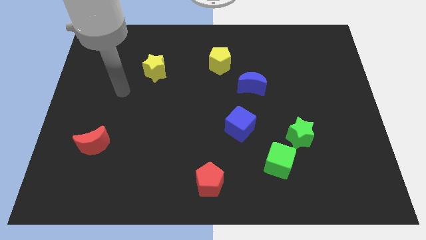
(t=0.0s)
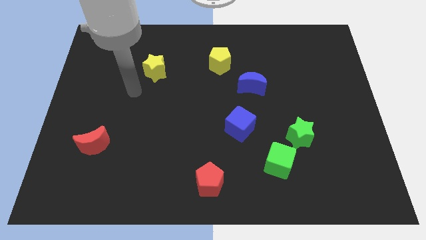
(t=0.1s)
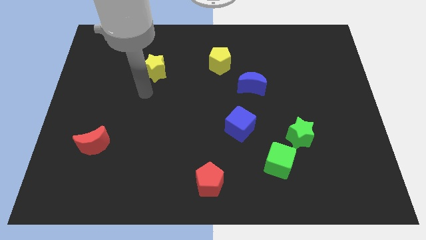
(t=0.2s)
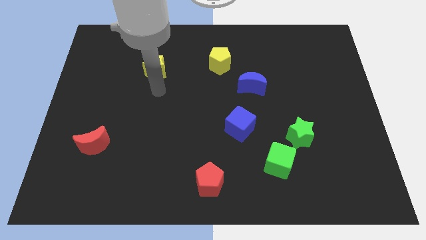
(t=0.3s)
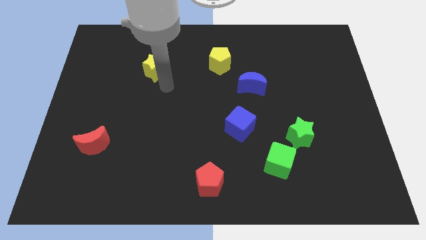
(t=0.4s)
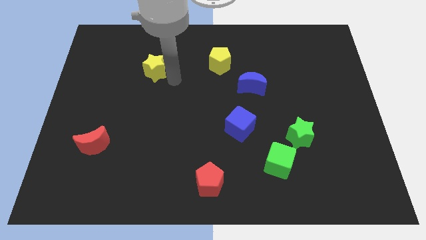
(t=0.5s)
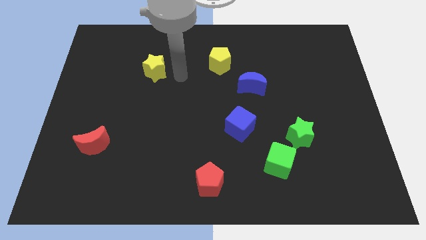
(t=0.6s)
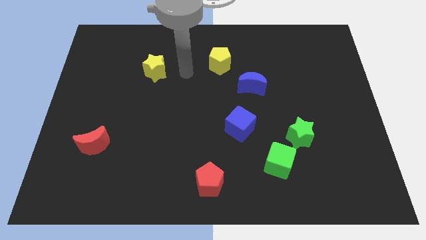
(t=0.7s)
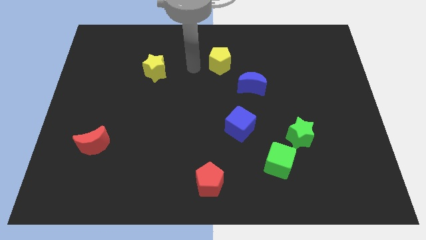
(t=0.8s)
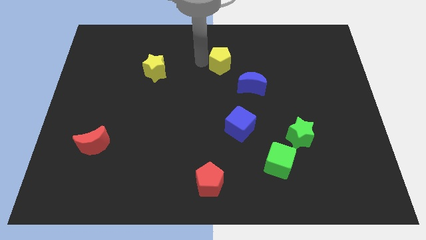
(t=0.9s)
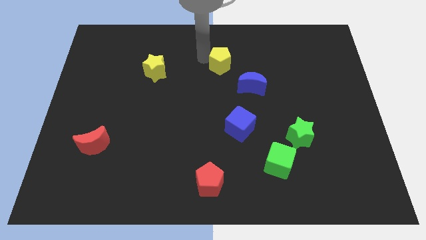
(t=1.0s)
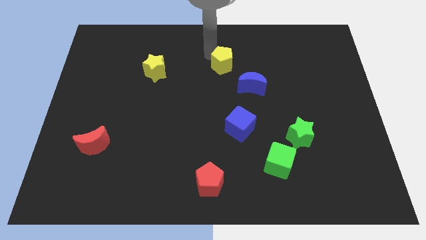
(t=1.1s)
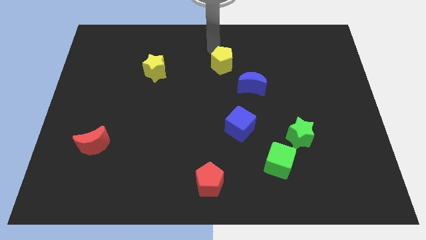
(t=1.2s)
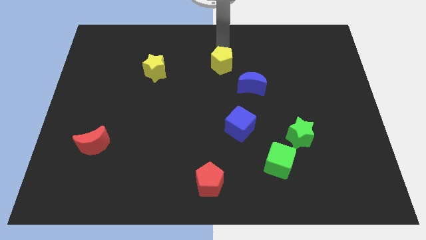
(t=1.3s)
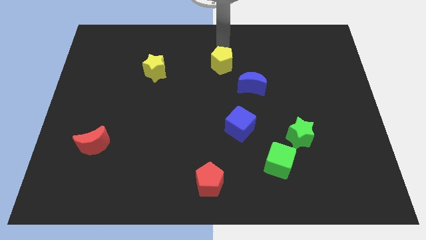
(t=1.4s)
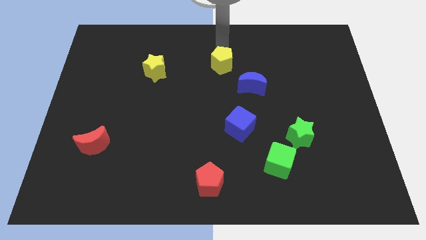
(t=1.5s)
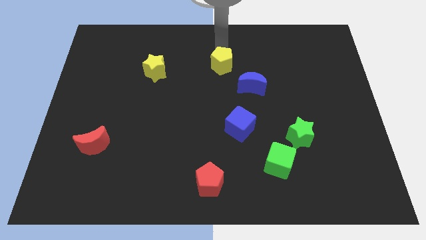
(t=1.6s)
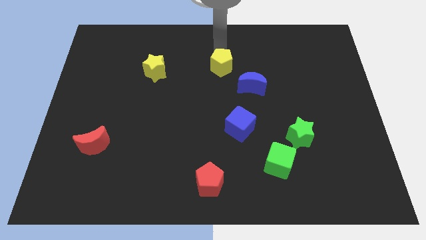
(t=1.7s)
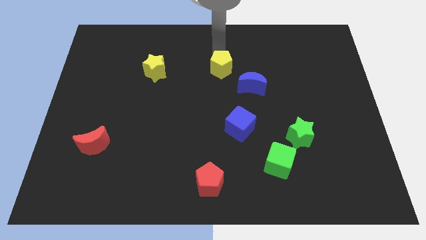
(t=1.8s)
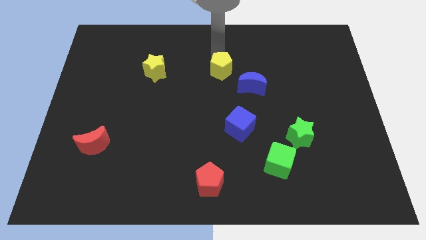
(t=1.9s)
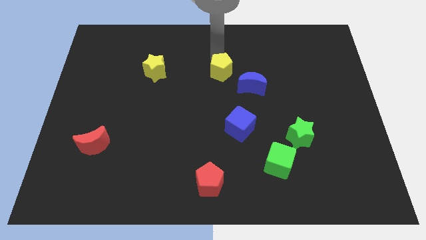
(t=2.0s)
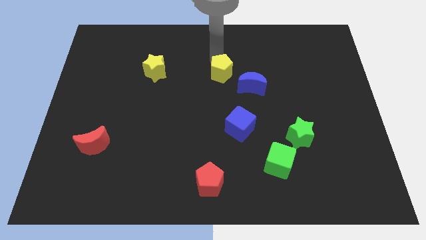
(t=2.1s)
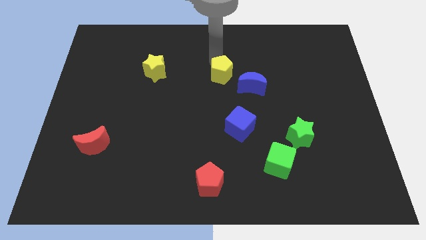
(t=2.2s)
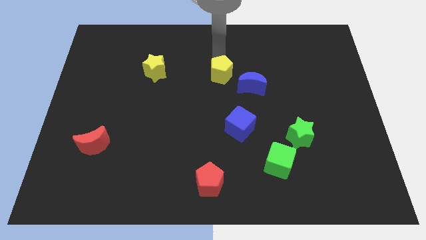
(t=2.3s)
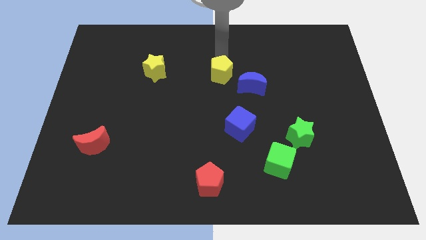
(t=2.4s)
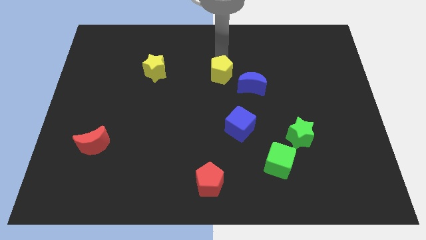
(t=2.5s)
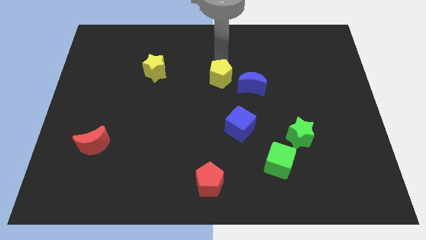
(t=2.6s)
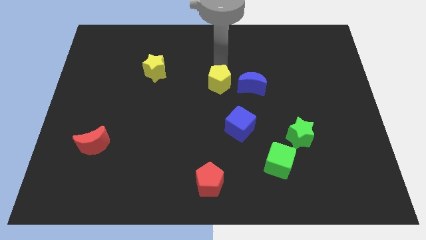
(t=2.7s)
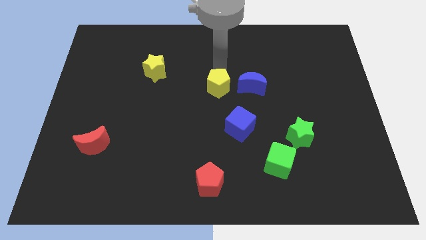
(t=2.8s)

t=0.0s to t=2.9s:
slide the yellow pentagon downwards a little

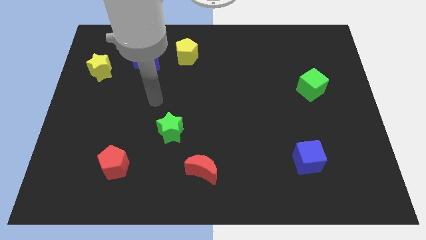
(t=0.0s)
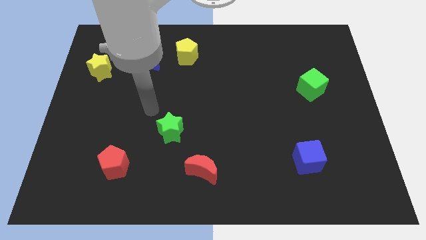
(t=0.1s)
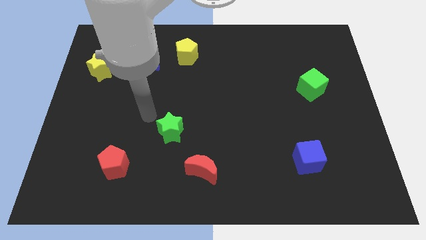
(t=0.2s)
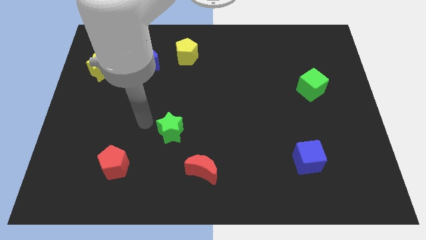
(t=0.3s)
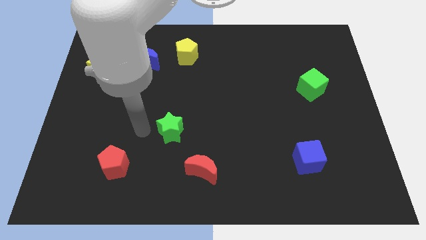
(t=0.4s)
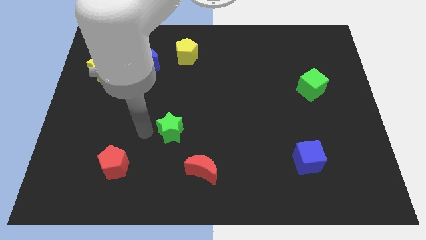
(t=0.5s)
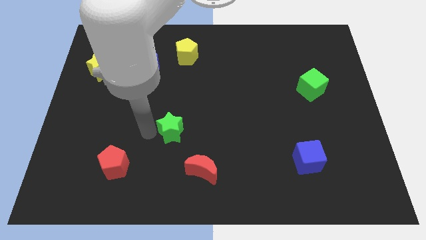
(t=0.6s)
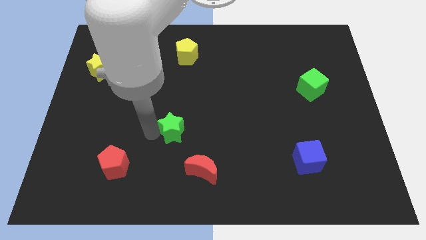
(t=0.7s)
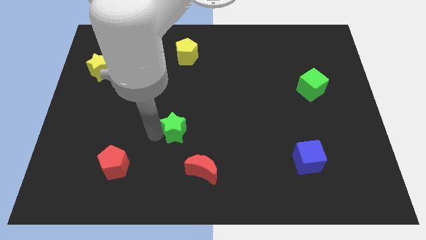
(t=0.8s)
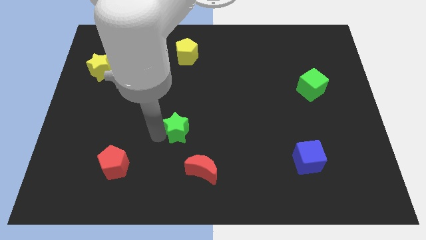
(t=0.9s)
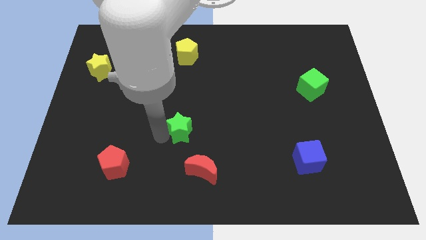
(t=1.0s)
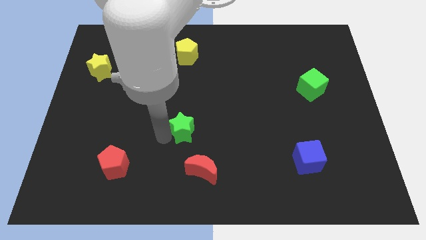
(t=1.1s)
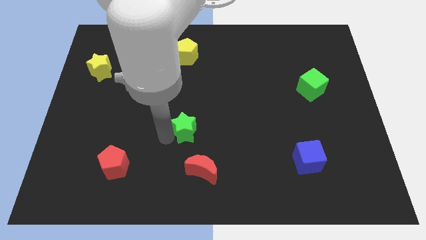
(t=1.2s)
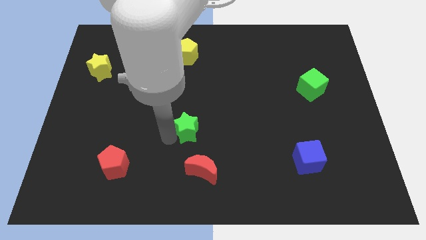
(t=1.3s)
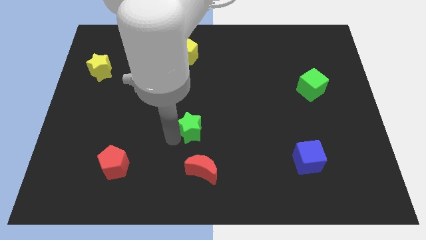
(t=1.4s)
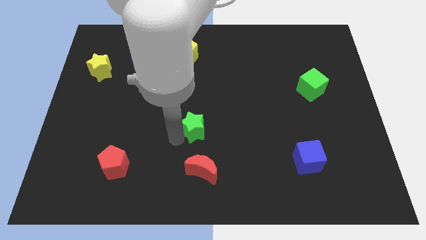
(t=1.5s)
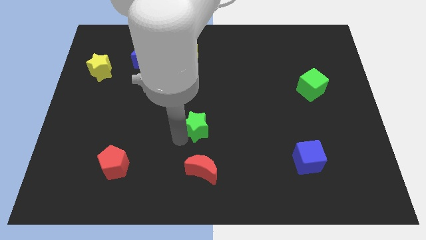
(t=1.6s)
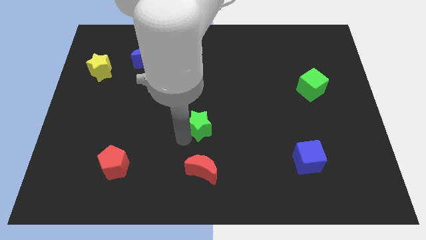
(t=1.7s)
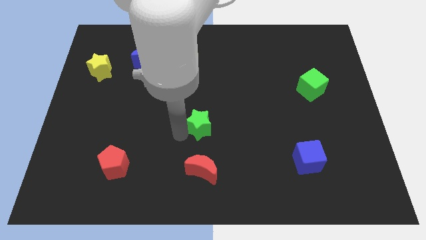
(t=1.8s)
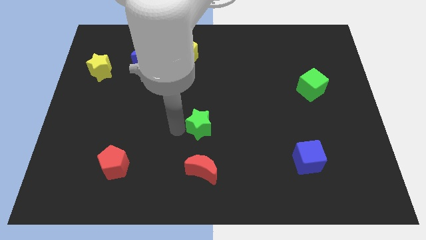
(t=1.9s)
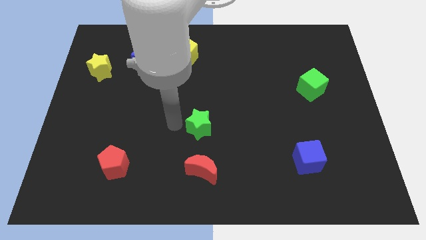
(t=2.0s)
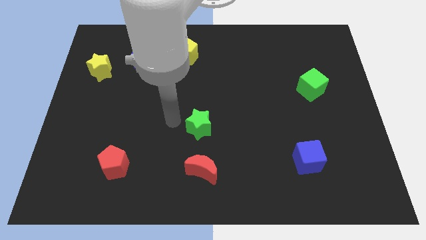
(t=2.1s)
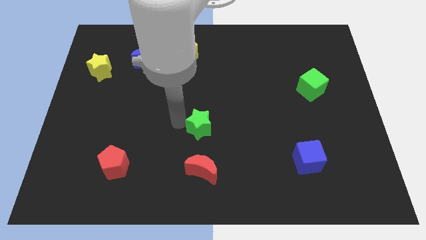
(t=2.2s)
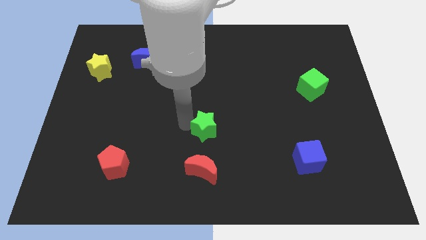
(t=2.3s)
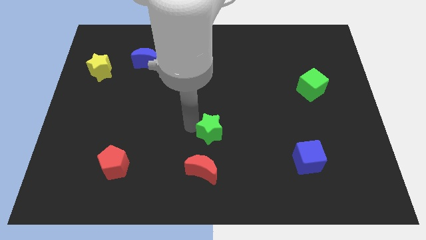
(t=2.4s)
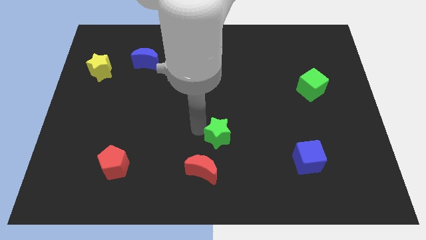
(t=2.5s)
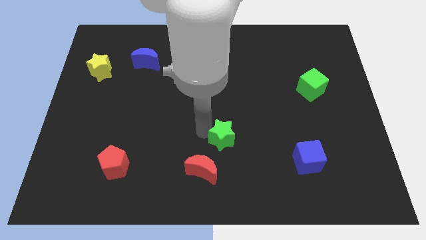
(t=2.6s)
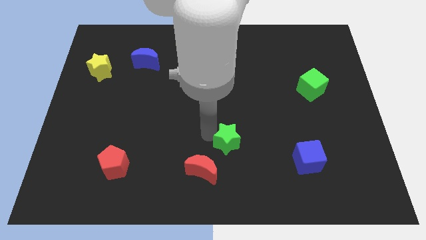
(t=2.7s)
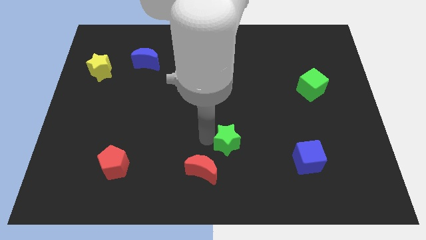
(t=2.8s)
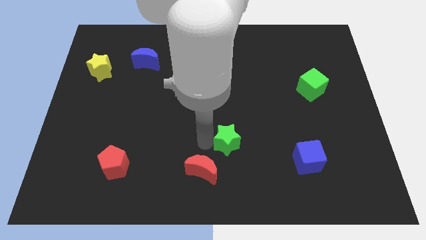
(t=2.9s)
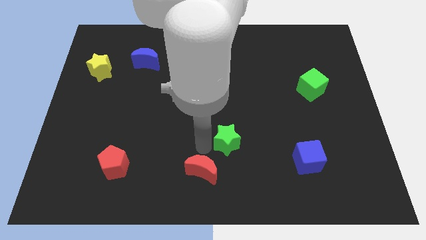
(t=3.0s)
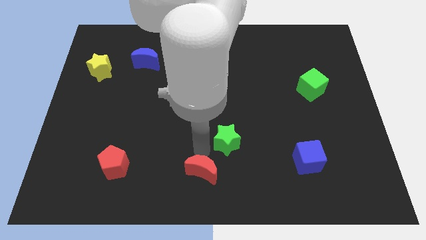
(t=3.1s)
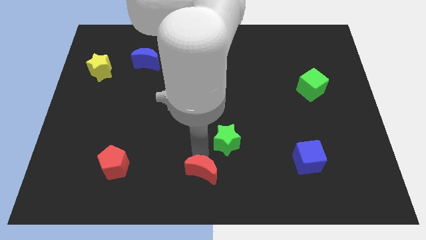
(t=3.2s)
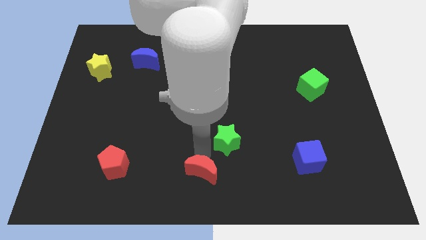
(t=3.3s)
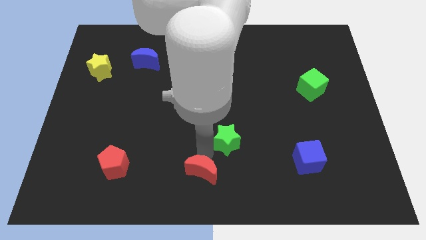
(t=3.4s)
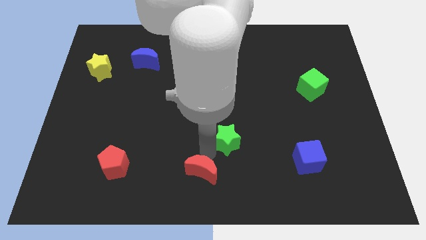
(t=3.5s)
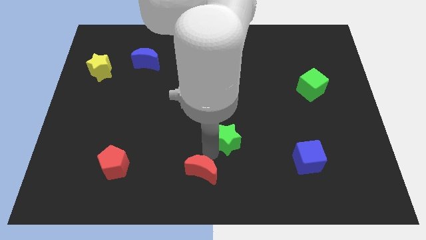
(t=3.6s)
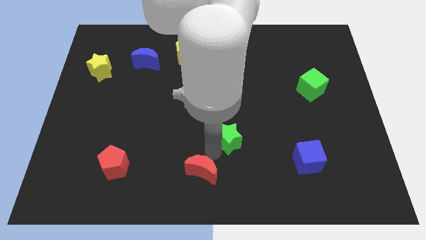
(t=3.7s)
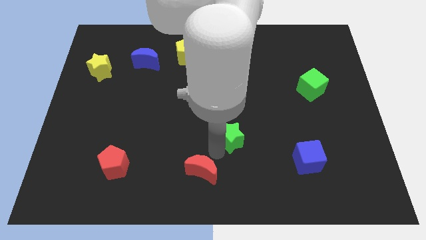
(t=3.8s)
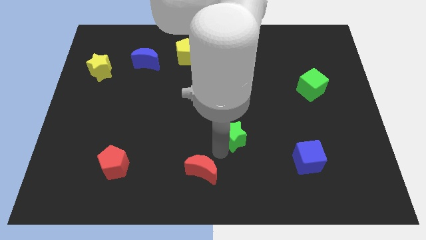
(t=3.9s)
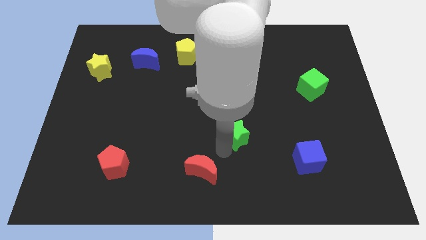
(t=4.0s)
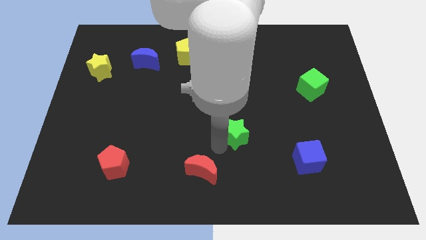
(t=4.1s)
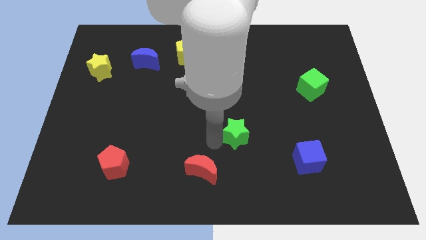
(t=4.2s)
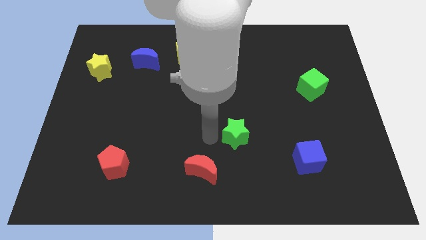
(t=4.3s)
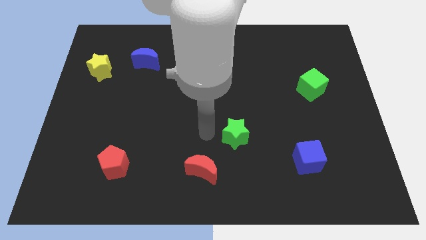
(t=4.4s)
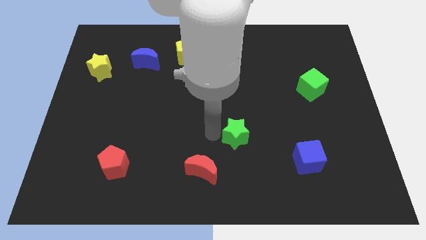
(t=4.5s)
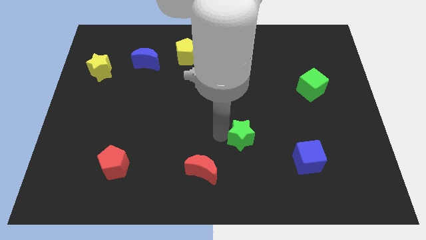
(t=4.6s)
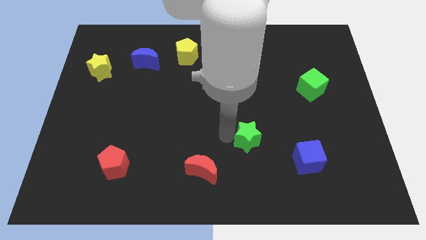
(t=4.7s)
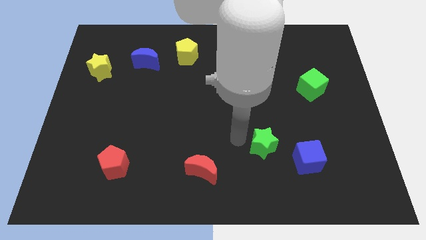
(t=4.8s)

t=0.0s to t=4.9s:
slide the green star right

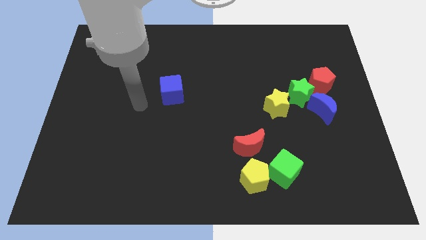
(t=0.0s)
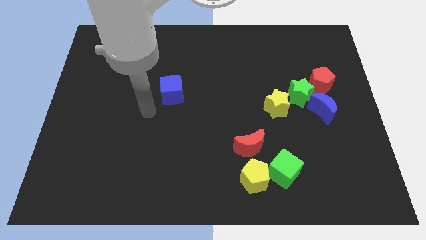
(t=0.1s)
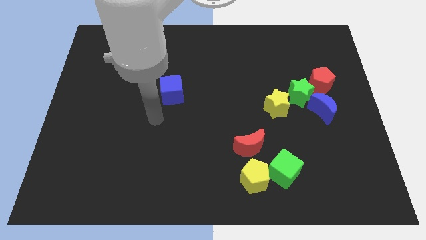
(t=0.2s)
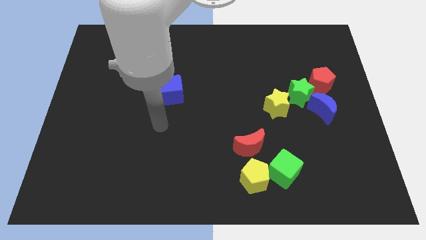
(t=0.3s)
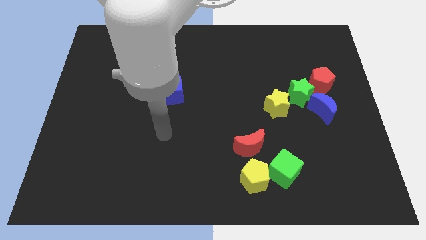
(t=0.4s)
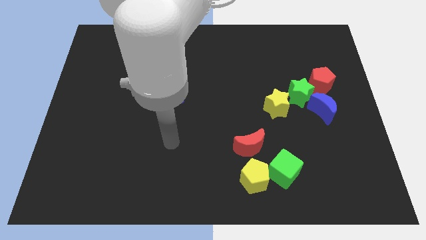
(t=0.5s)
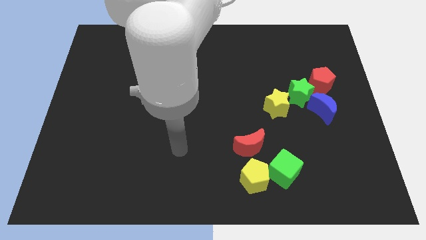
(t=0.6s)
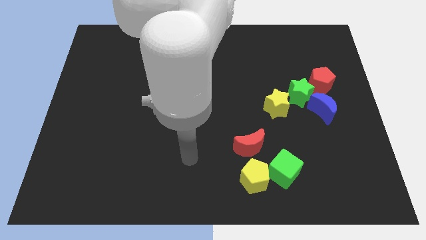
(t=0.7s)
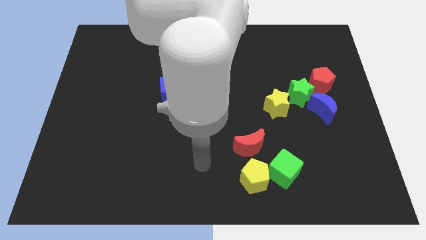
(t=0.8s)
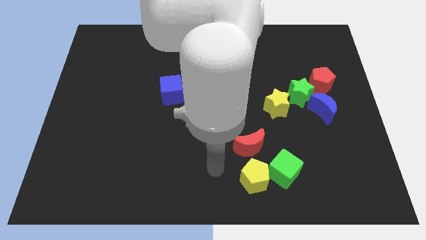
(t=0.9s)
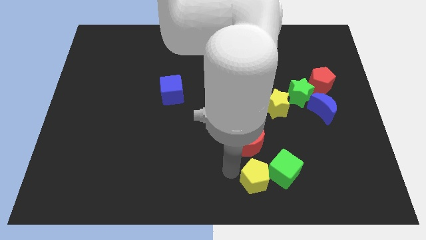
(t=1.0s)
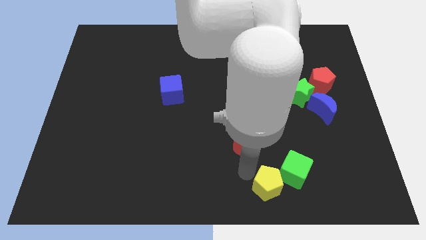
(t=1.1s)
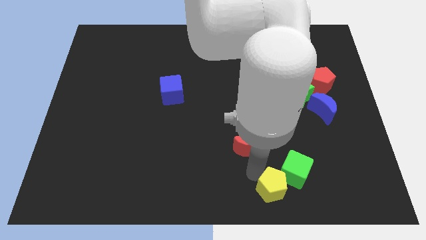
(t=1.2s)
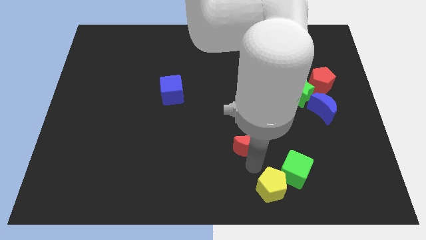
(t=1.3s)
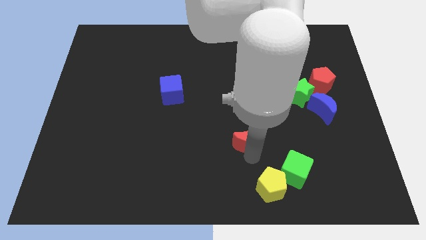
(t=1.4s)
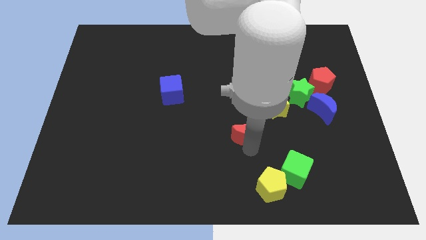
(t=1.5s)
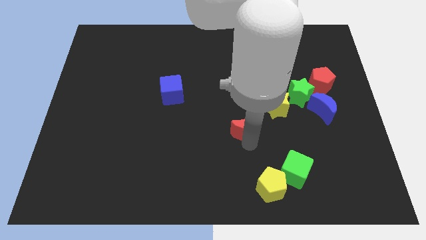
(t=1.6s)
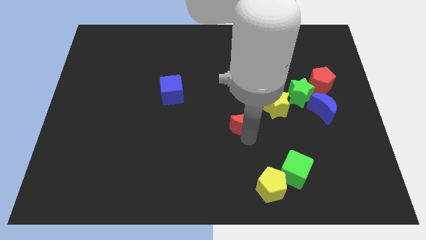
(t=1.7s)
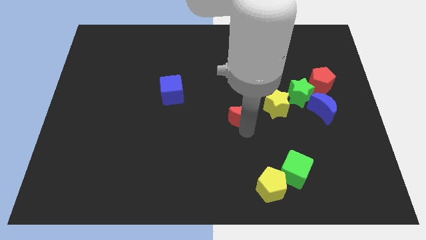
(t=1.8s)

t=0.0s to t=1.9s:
push the red moon up a little
